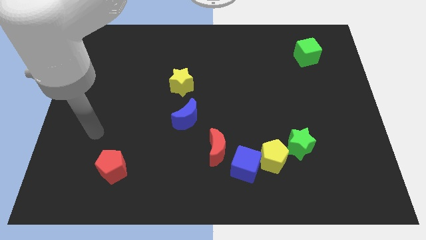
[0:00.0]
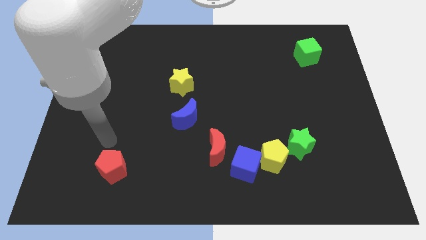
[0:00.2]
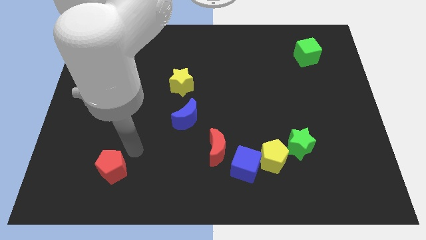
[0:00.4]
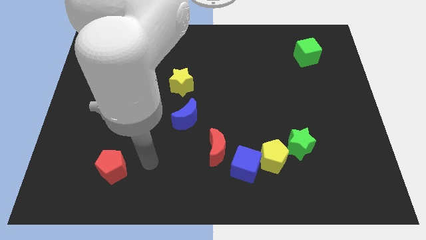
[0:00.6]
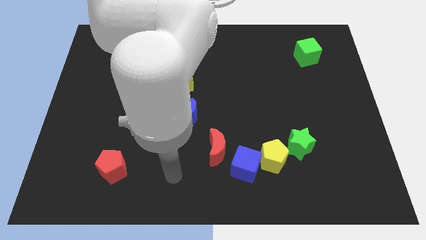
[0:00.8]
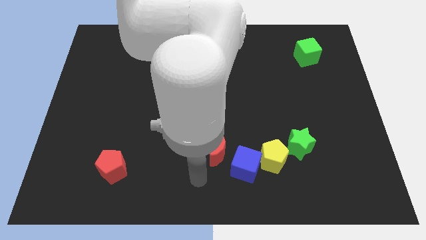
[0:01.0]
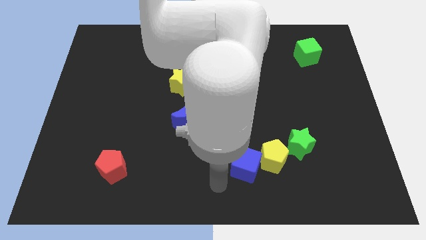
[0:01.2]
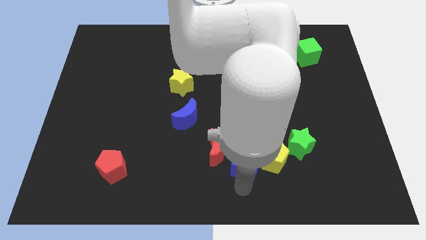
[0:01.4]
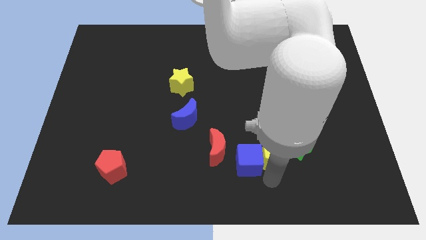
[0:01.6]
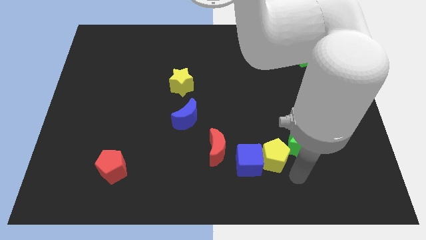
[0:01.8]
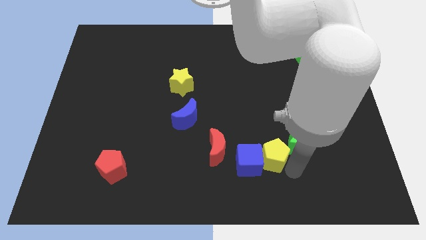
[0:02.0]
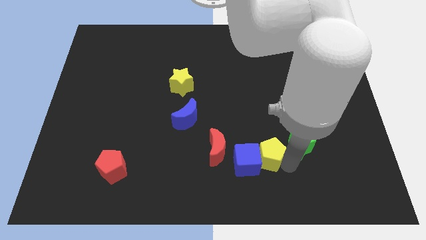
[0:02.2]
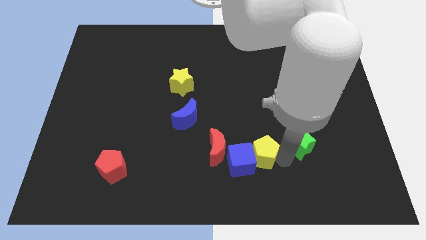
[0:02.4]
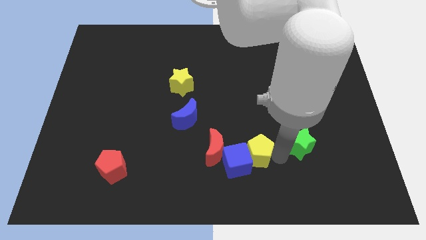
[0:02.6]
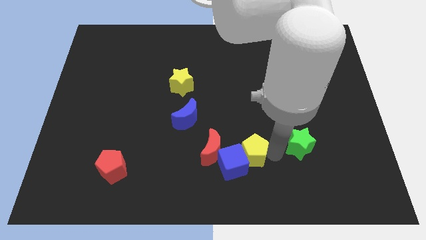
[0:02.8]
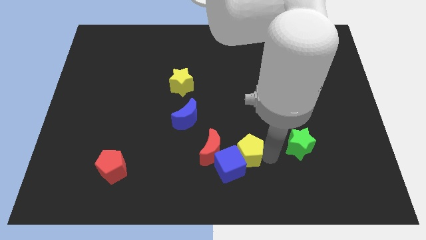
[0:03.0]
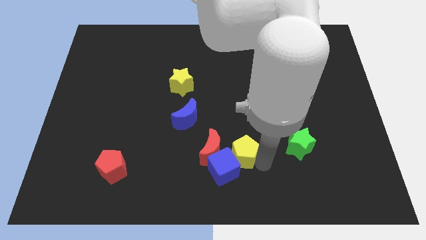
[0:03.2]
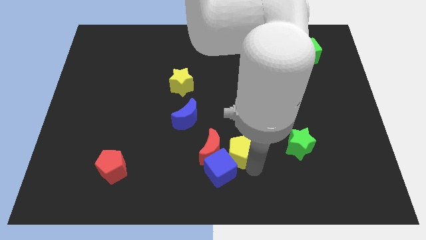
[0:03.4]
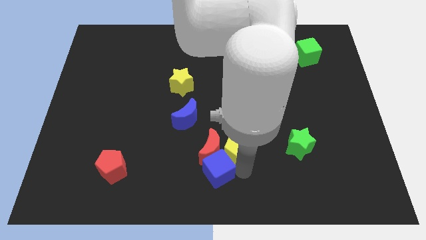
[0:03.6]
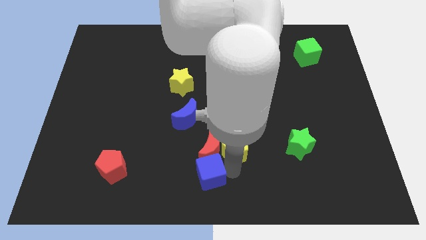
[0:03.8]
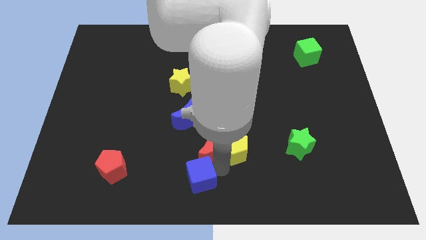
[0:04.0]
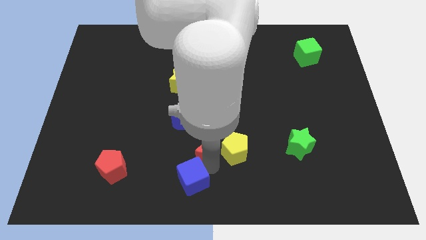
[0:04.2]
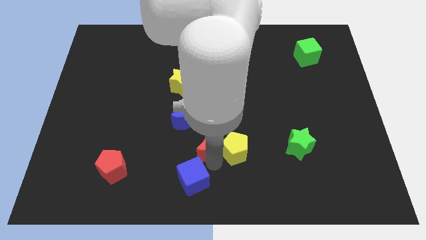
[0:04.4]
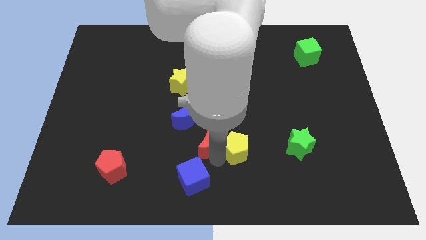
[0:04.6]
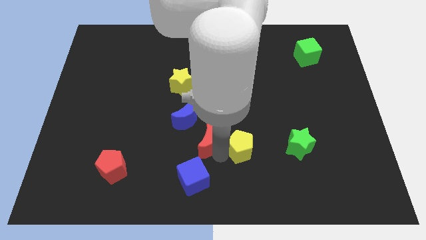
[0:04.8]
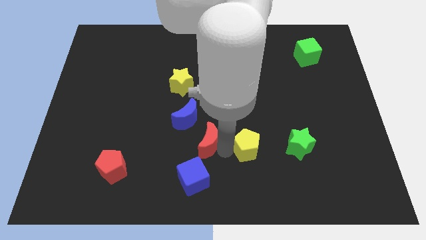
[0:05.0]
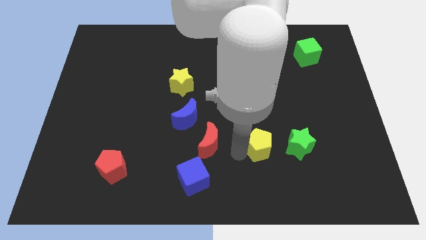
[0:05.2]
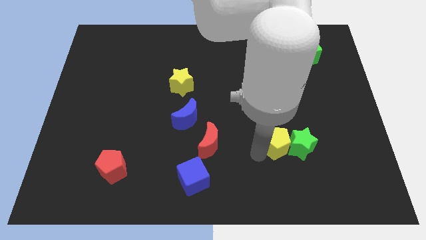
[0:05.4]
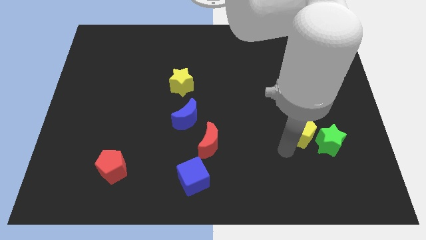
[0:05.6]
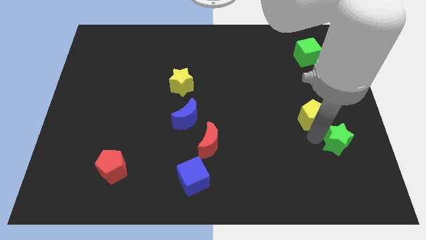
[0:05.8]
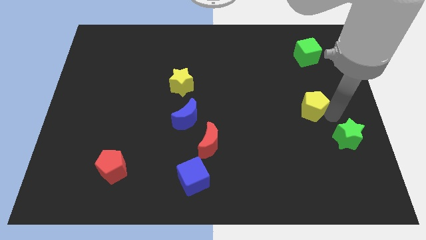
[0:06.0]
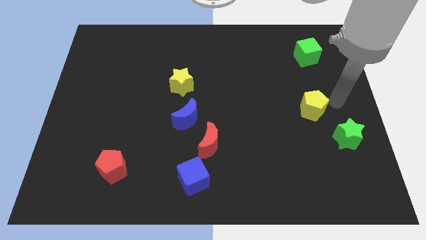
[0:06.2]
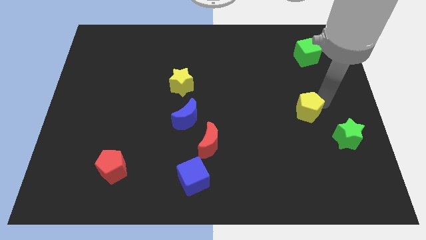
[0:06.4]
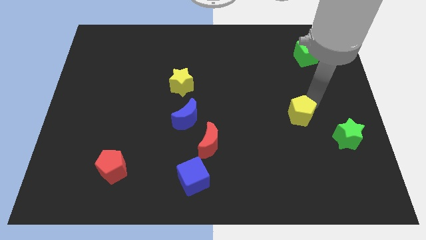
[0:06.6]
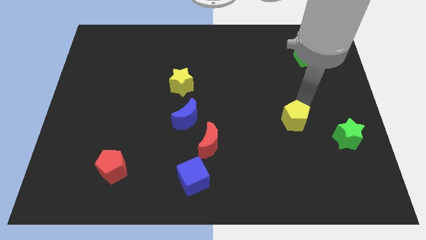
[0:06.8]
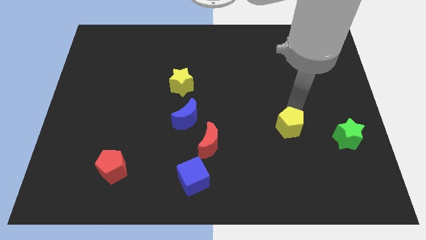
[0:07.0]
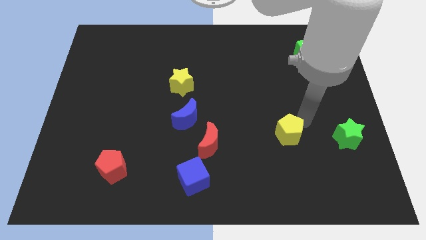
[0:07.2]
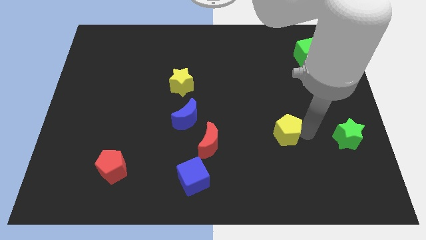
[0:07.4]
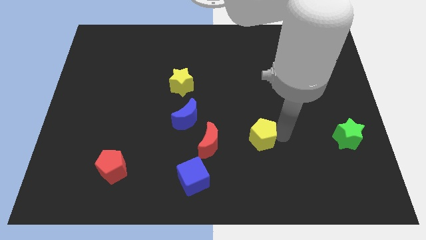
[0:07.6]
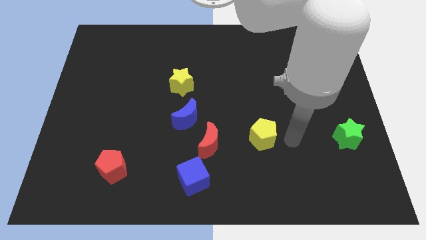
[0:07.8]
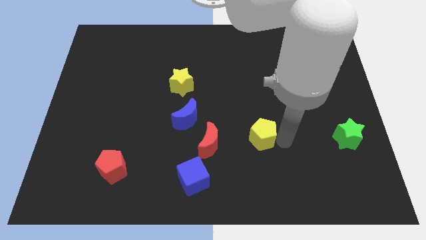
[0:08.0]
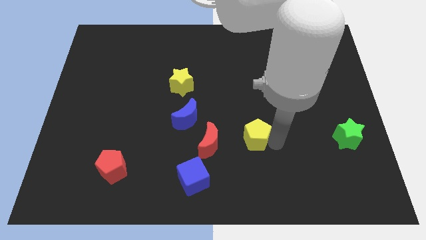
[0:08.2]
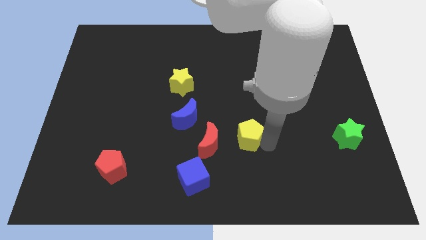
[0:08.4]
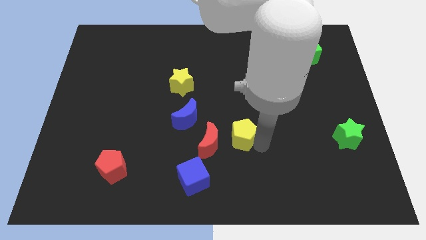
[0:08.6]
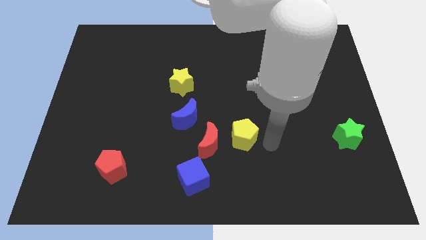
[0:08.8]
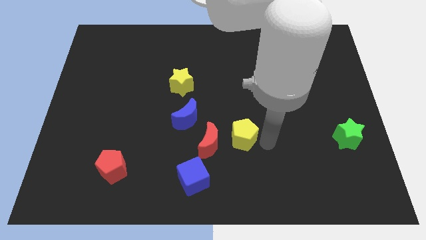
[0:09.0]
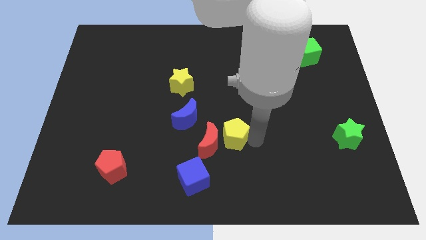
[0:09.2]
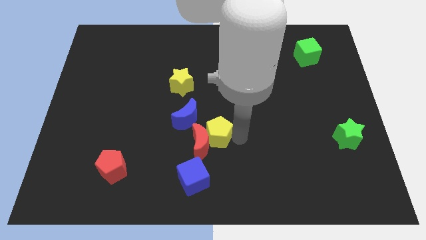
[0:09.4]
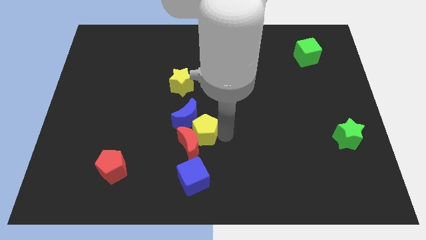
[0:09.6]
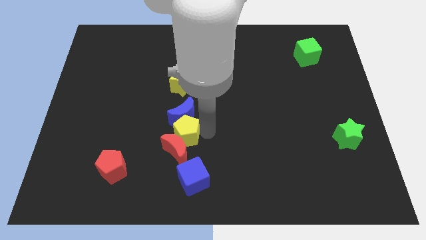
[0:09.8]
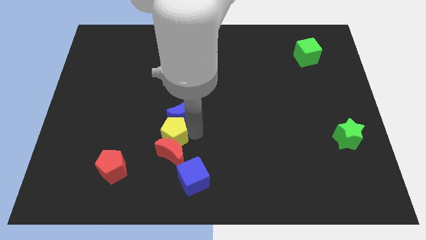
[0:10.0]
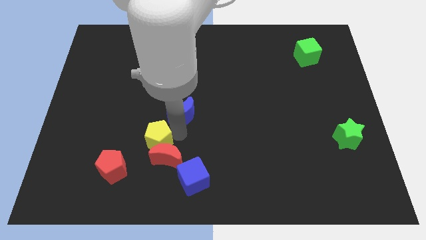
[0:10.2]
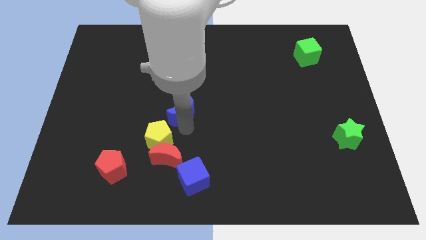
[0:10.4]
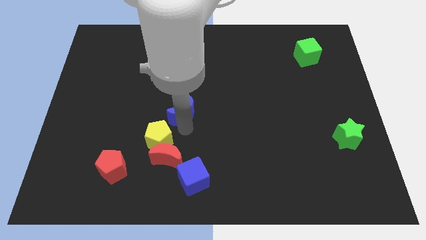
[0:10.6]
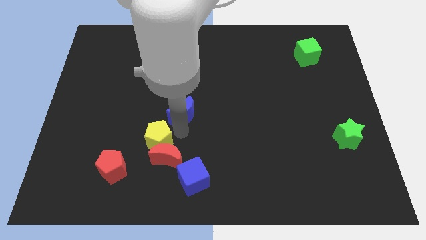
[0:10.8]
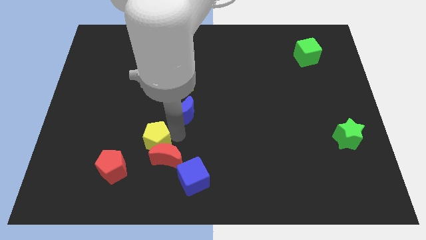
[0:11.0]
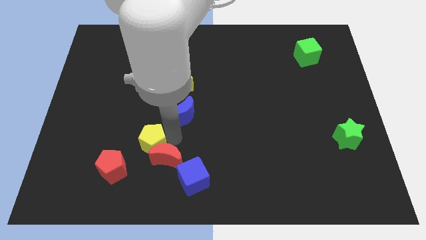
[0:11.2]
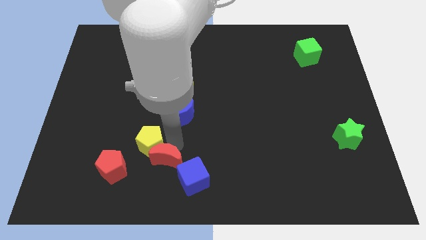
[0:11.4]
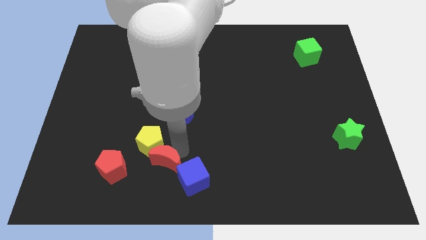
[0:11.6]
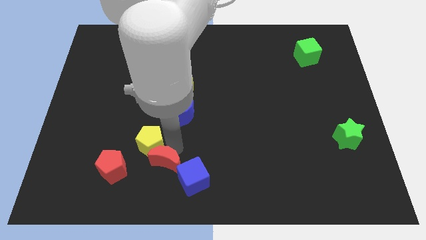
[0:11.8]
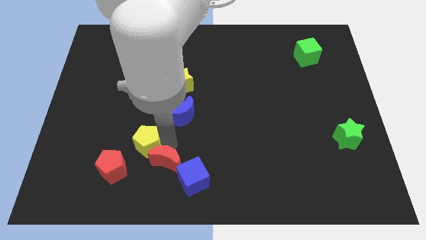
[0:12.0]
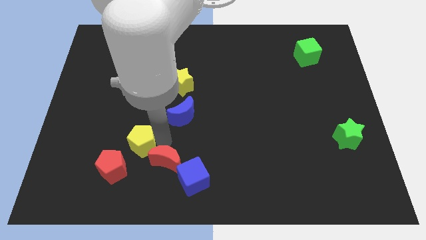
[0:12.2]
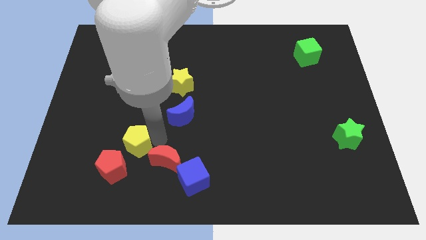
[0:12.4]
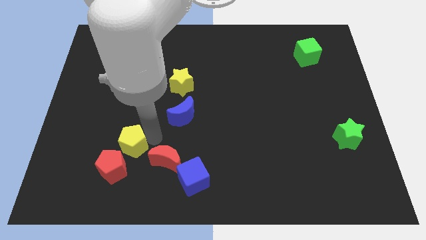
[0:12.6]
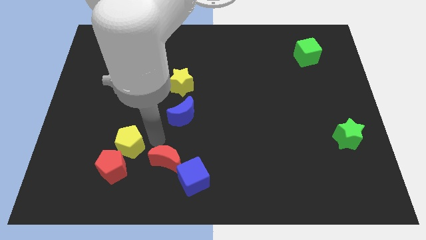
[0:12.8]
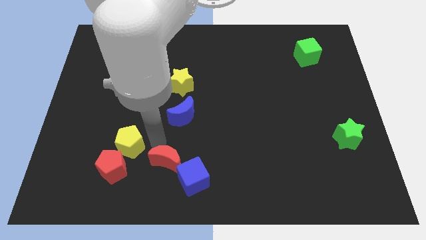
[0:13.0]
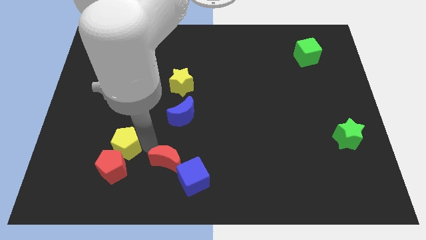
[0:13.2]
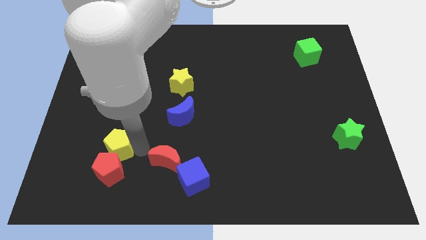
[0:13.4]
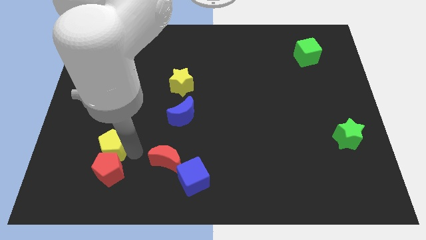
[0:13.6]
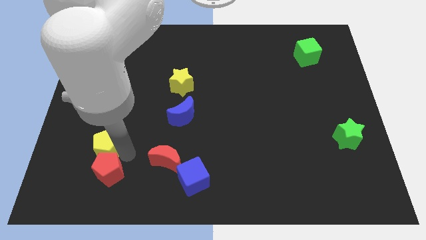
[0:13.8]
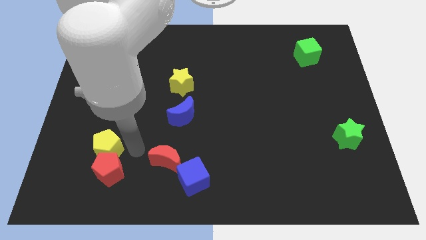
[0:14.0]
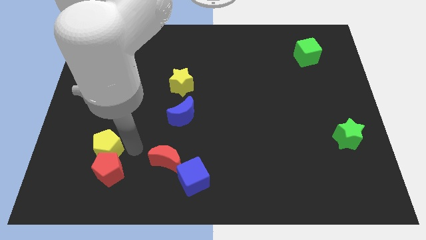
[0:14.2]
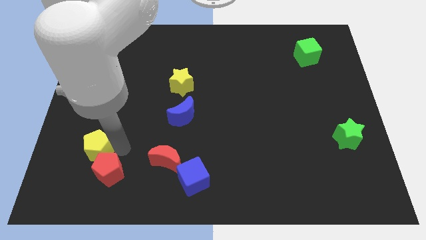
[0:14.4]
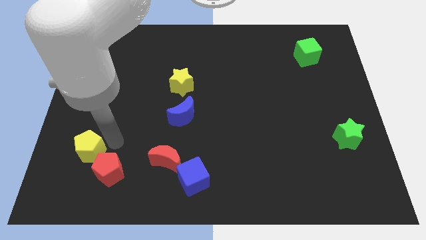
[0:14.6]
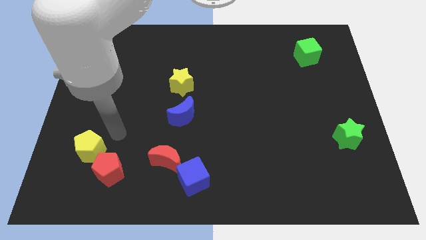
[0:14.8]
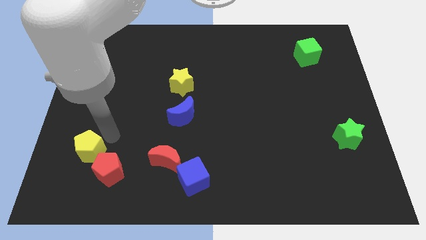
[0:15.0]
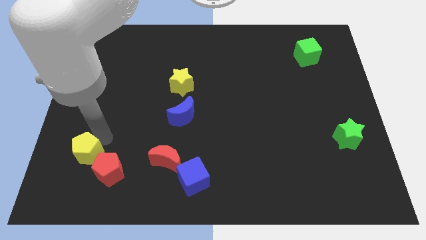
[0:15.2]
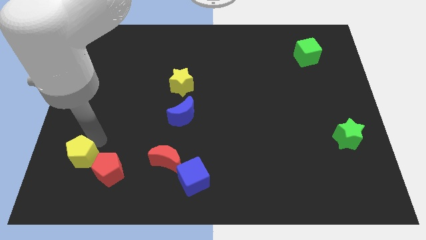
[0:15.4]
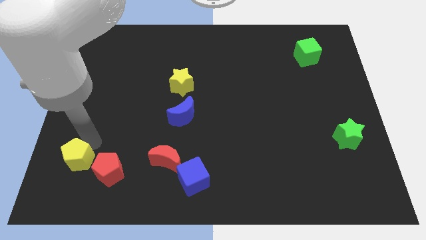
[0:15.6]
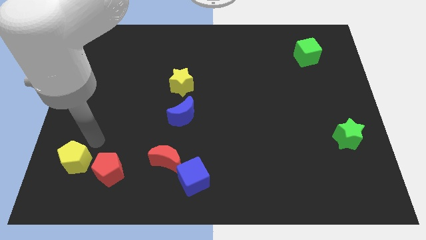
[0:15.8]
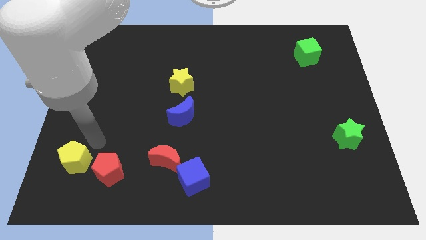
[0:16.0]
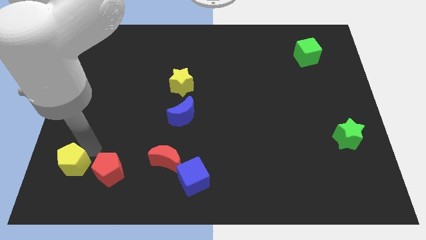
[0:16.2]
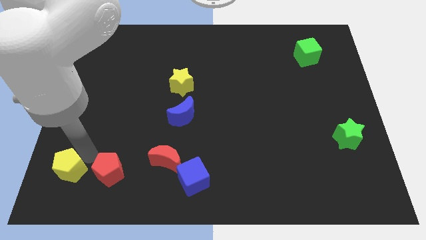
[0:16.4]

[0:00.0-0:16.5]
put the yellow pentagon to the bottom left of the board
